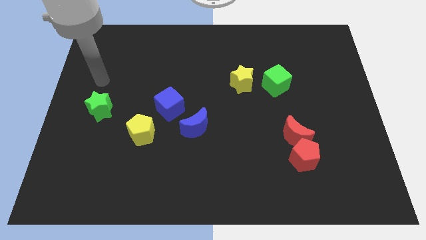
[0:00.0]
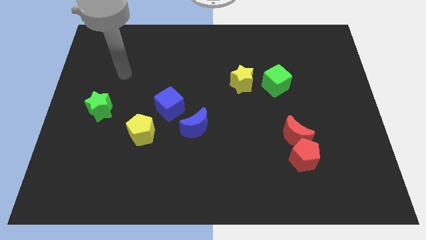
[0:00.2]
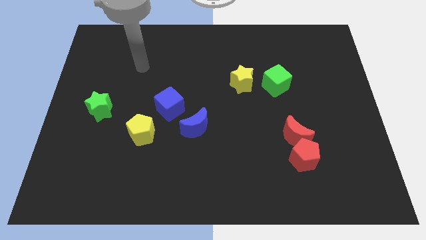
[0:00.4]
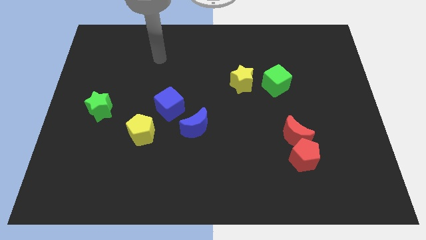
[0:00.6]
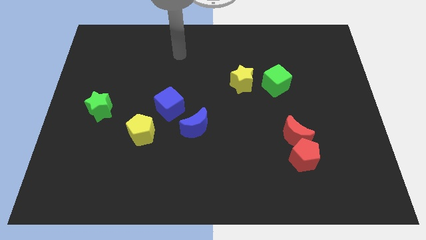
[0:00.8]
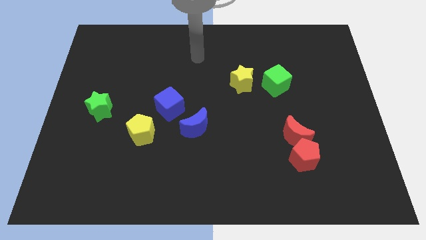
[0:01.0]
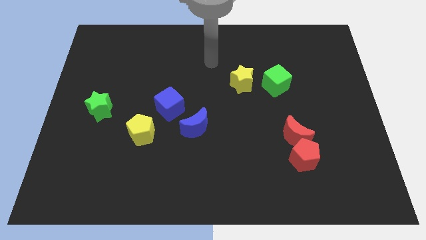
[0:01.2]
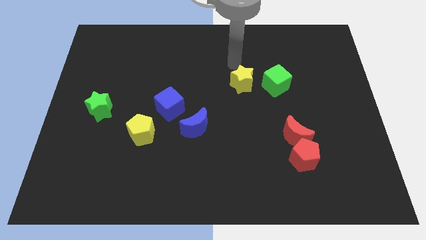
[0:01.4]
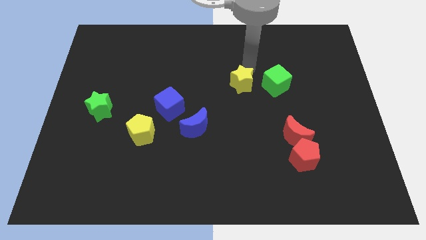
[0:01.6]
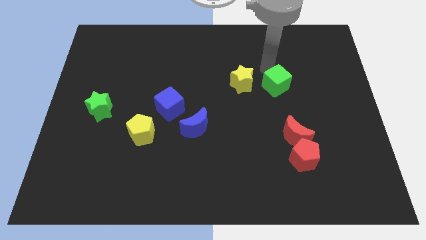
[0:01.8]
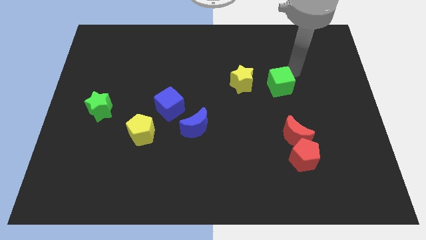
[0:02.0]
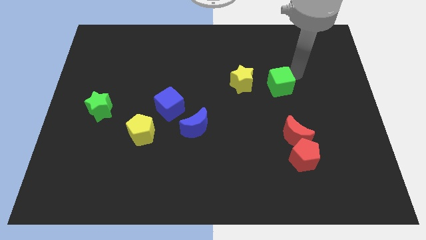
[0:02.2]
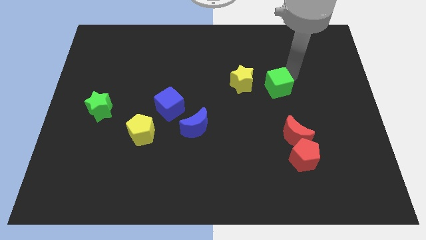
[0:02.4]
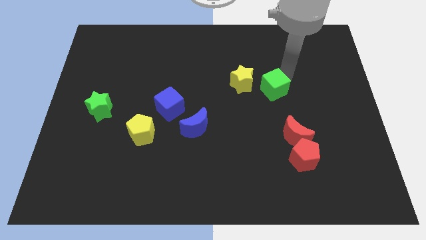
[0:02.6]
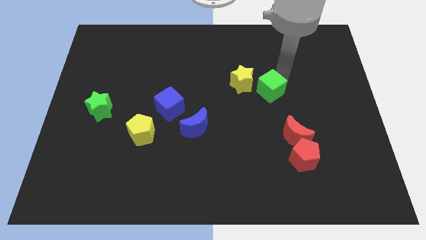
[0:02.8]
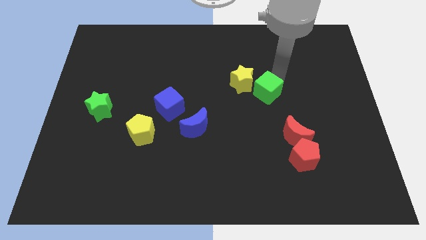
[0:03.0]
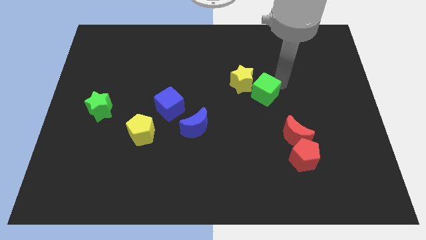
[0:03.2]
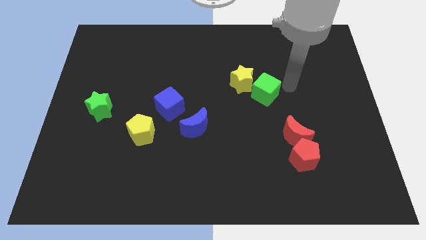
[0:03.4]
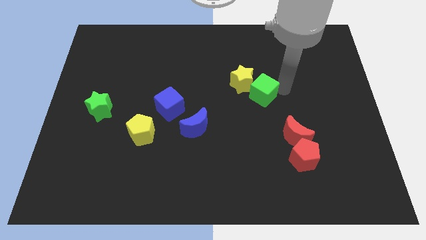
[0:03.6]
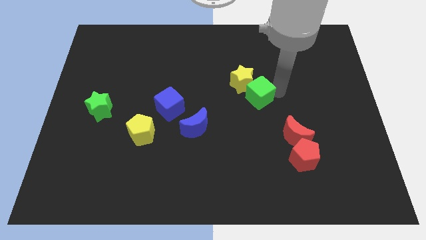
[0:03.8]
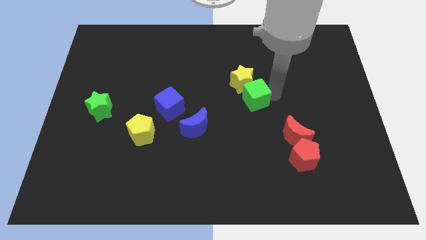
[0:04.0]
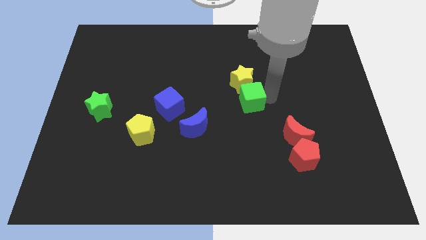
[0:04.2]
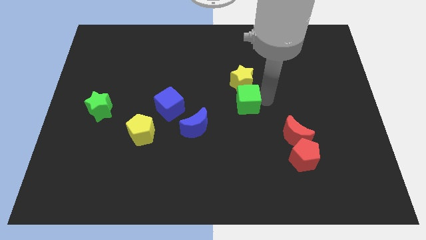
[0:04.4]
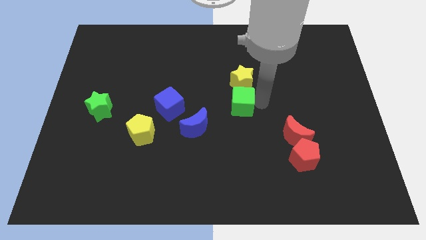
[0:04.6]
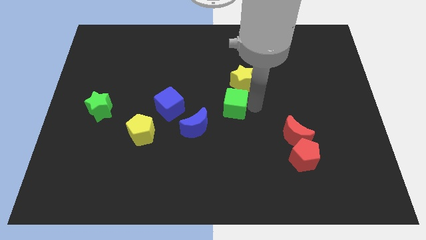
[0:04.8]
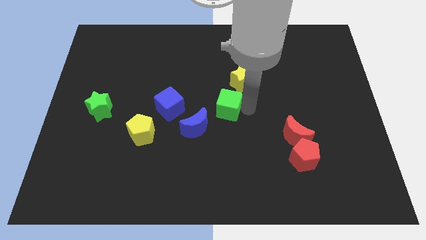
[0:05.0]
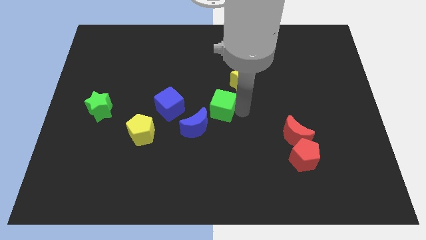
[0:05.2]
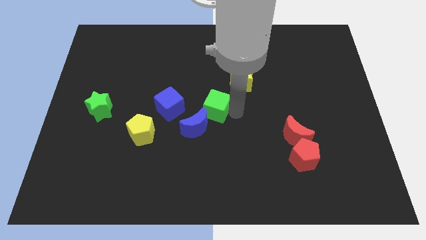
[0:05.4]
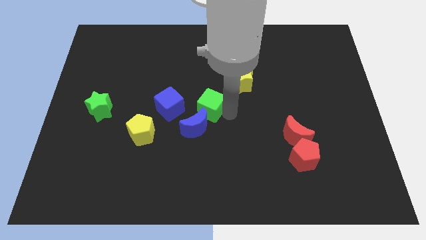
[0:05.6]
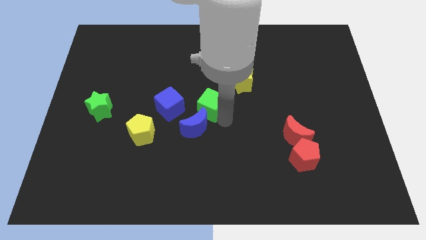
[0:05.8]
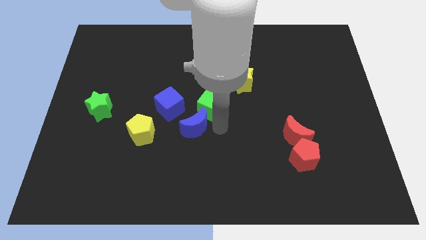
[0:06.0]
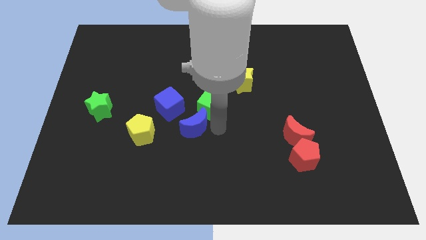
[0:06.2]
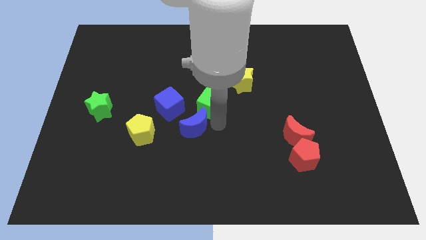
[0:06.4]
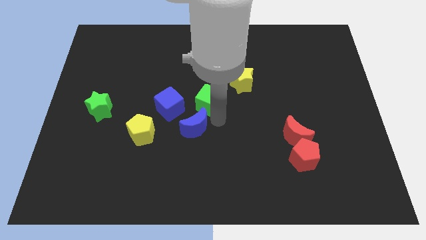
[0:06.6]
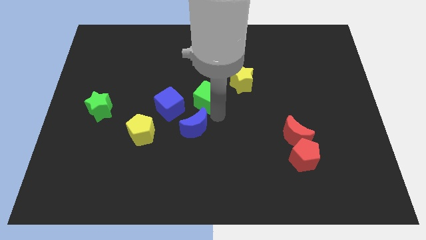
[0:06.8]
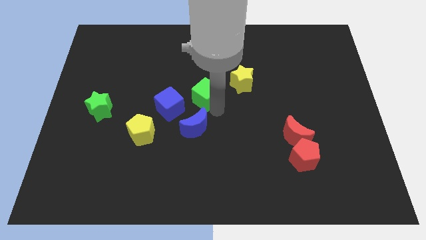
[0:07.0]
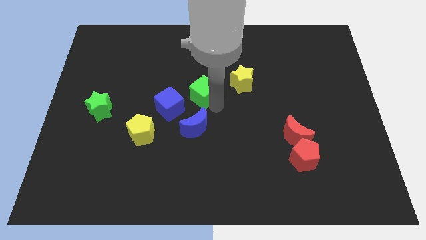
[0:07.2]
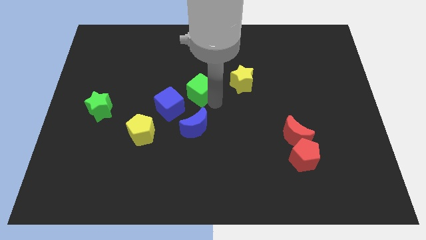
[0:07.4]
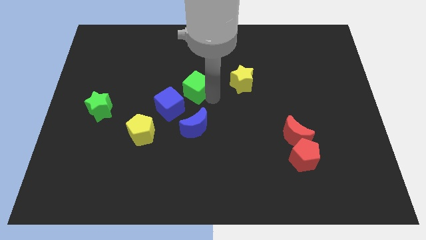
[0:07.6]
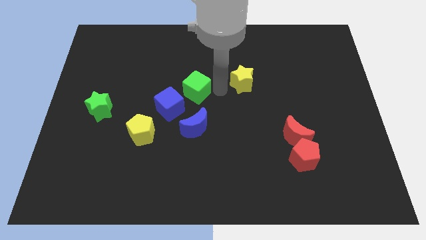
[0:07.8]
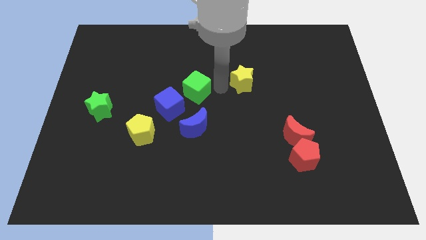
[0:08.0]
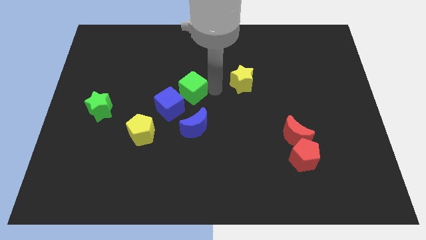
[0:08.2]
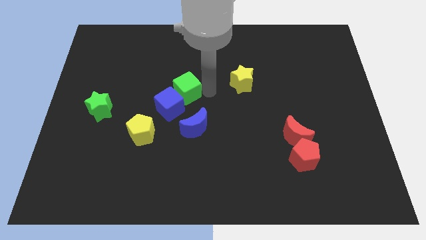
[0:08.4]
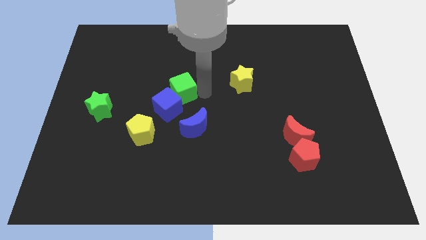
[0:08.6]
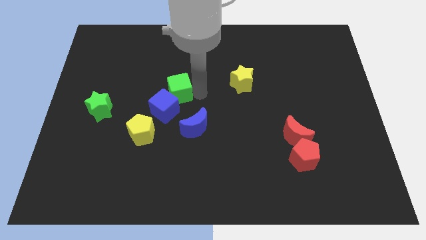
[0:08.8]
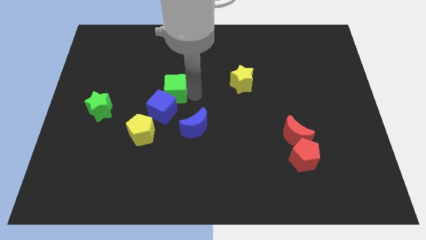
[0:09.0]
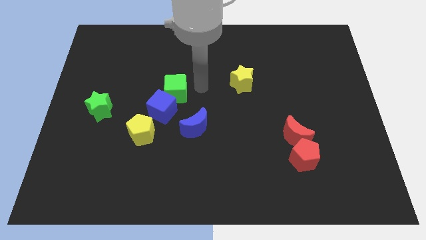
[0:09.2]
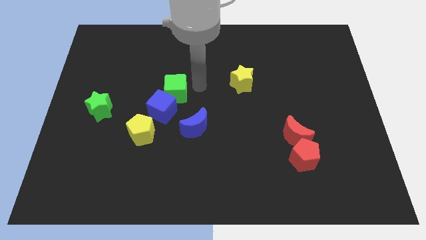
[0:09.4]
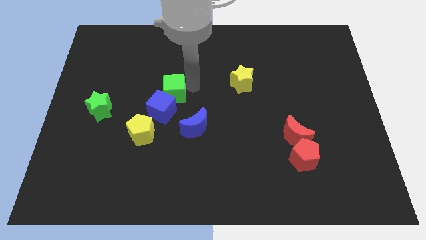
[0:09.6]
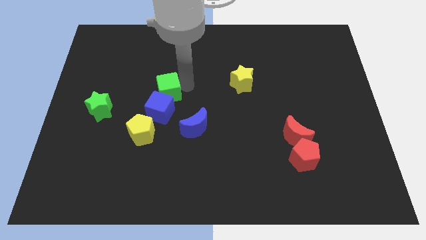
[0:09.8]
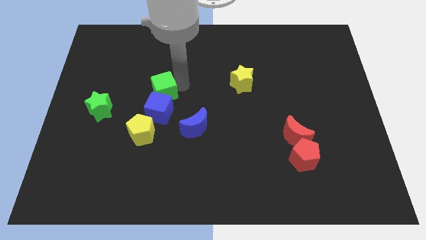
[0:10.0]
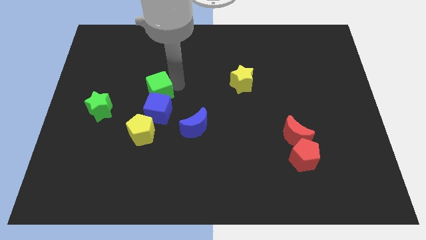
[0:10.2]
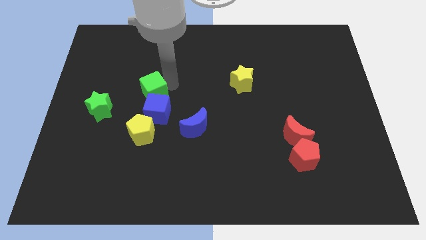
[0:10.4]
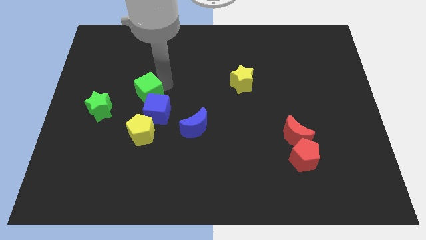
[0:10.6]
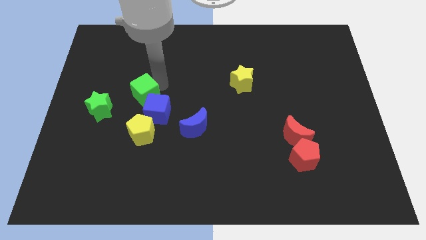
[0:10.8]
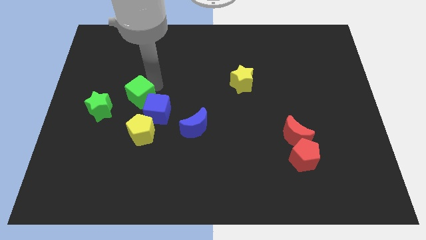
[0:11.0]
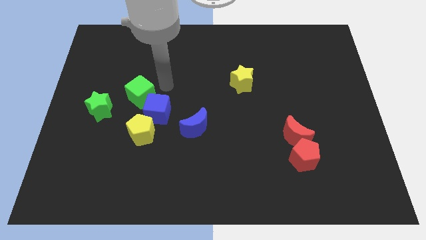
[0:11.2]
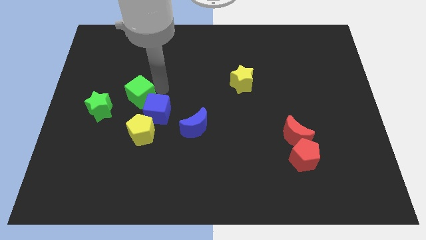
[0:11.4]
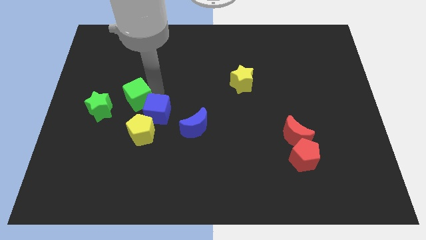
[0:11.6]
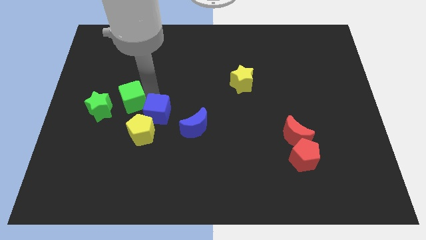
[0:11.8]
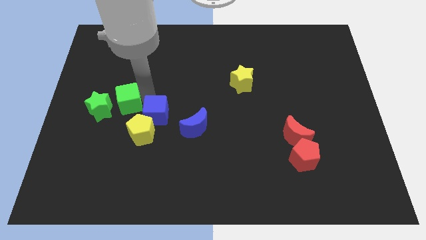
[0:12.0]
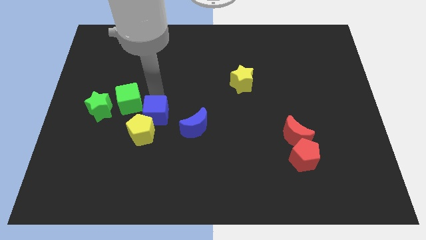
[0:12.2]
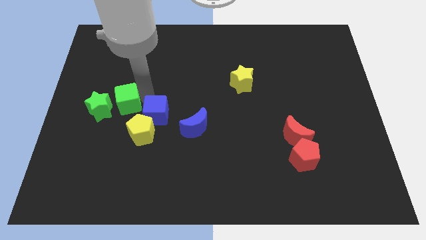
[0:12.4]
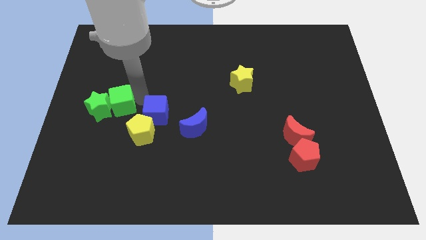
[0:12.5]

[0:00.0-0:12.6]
put the green cube next to the green star

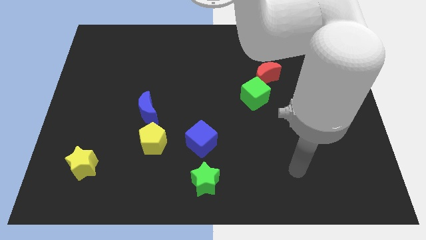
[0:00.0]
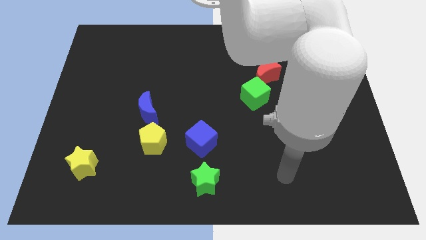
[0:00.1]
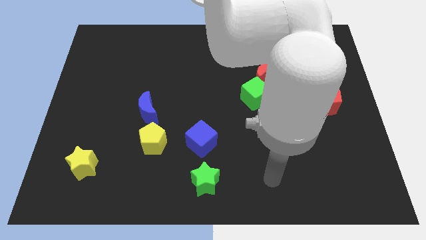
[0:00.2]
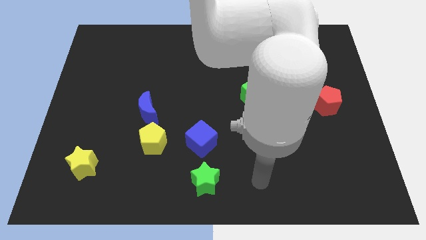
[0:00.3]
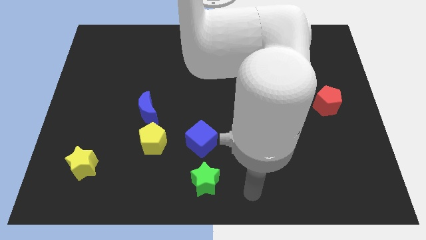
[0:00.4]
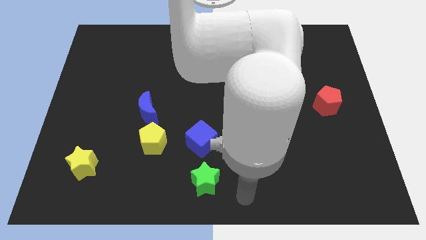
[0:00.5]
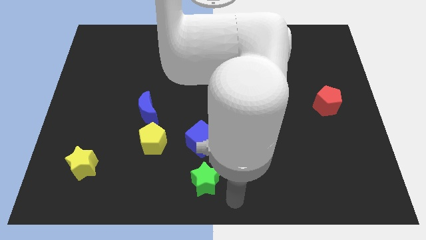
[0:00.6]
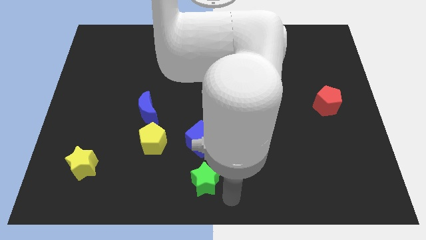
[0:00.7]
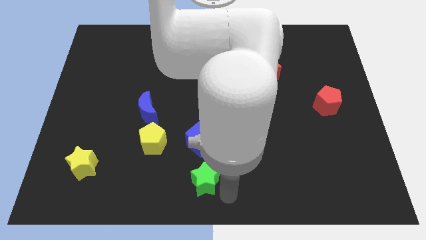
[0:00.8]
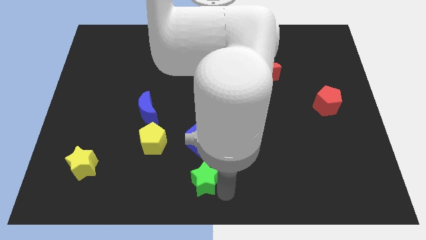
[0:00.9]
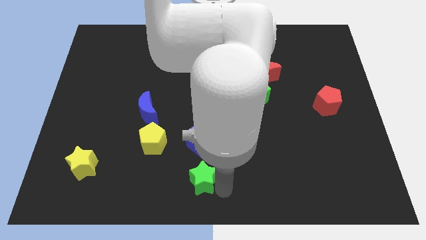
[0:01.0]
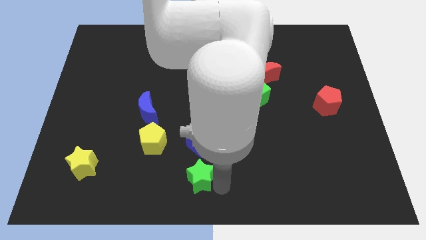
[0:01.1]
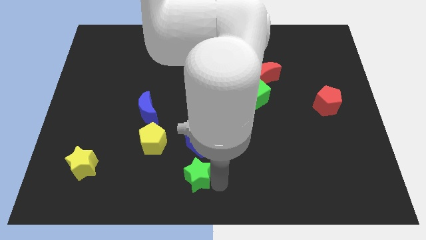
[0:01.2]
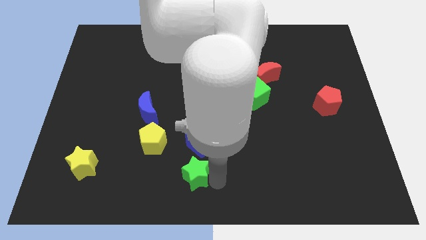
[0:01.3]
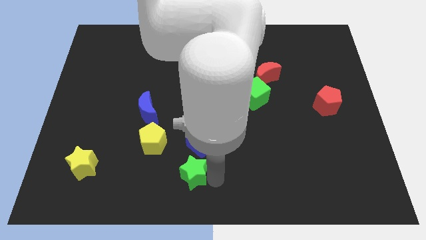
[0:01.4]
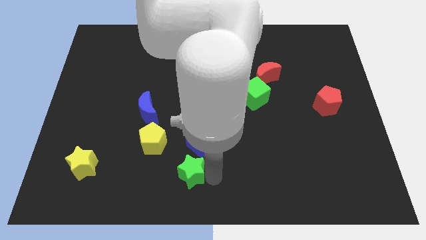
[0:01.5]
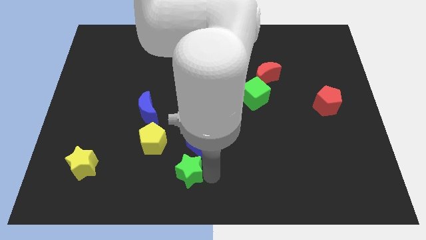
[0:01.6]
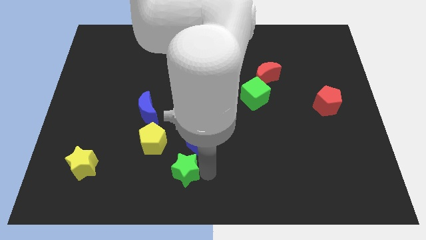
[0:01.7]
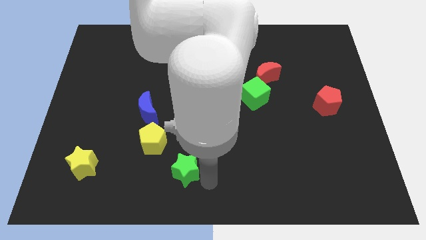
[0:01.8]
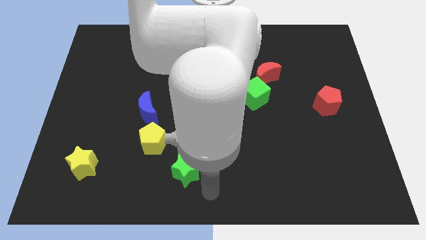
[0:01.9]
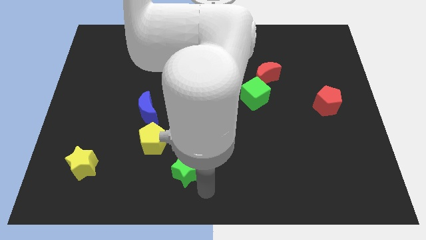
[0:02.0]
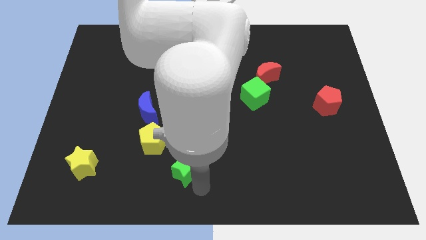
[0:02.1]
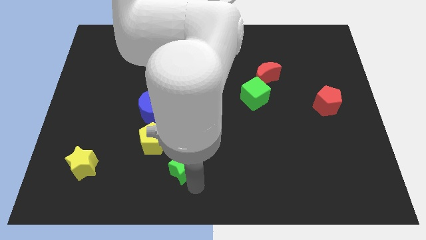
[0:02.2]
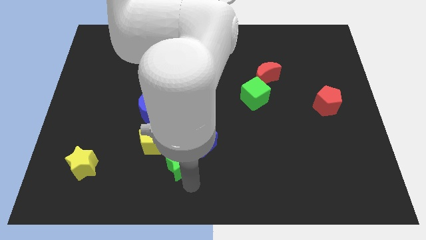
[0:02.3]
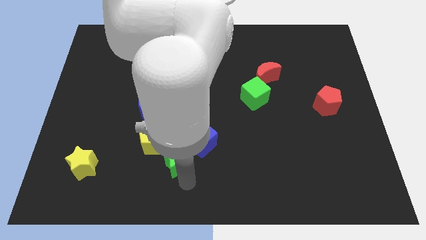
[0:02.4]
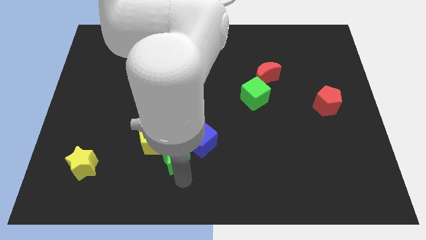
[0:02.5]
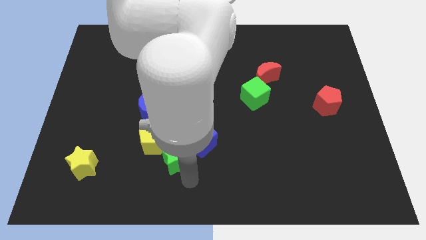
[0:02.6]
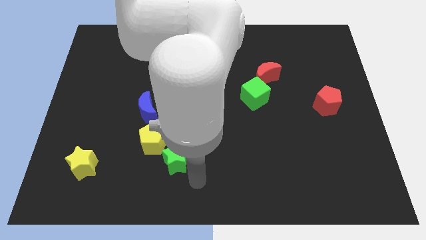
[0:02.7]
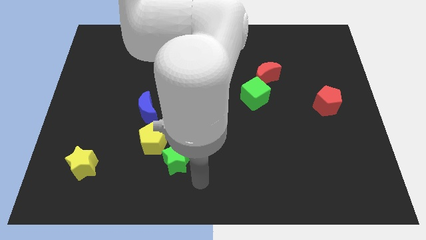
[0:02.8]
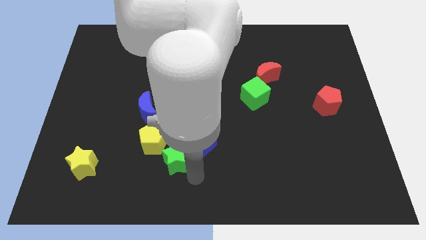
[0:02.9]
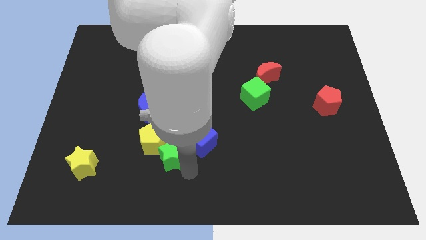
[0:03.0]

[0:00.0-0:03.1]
move the green star next to the yellow pentagon
